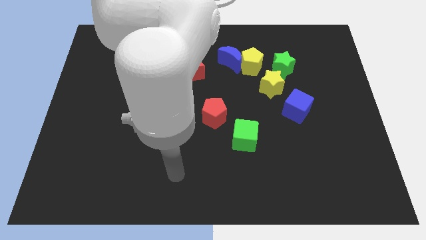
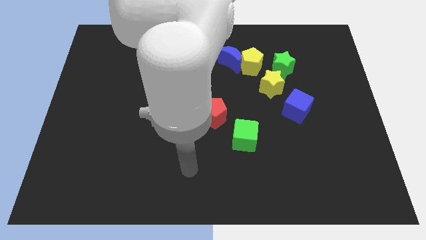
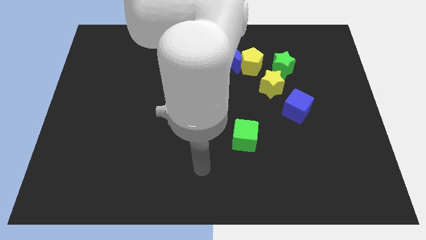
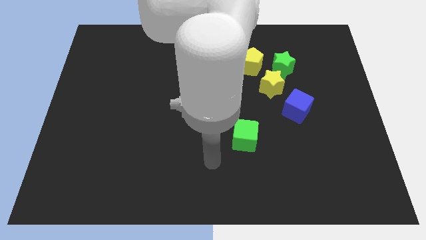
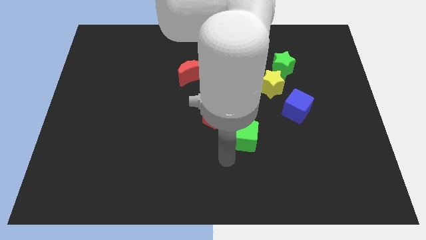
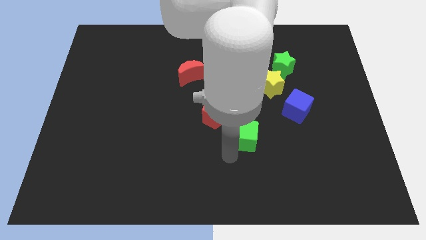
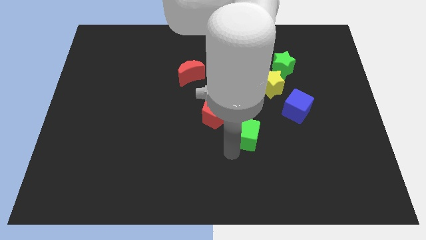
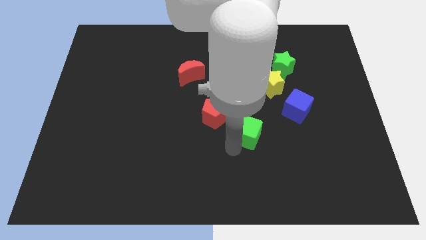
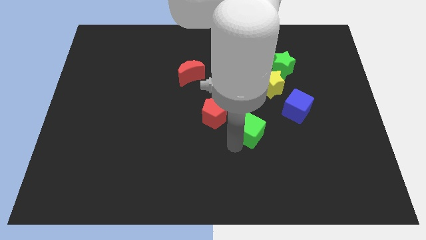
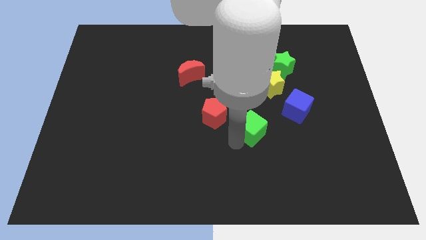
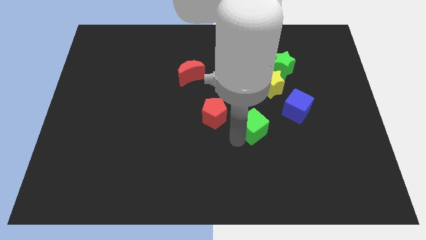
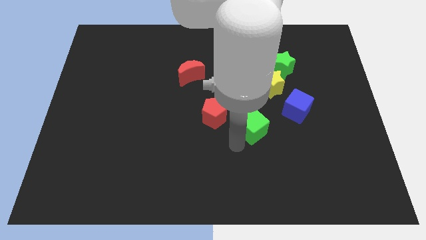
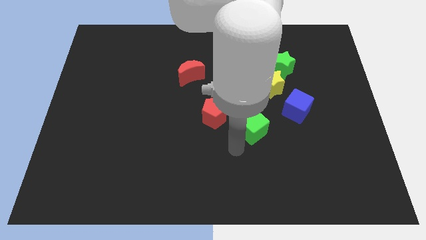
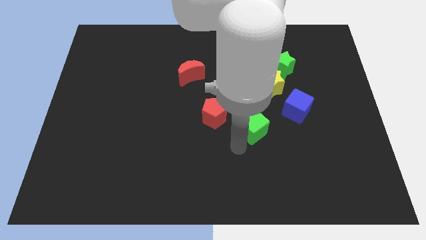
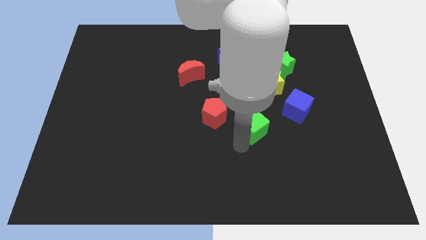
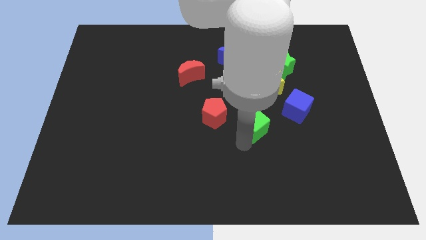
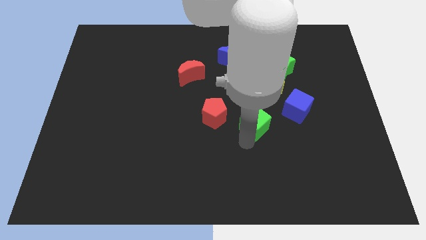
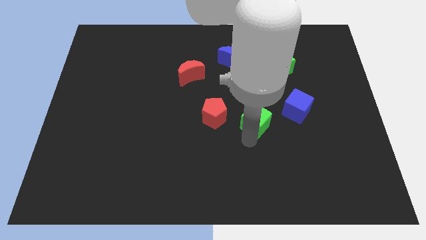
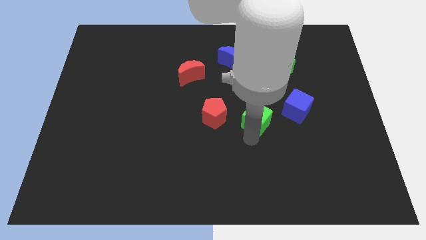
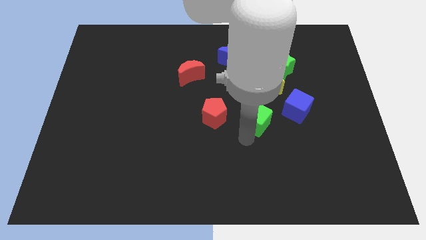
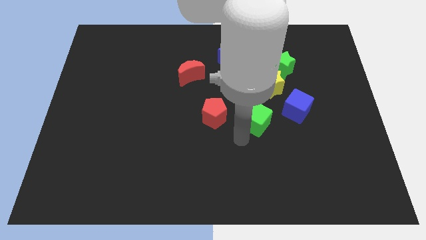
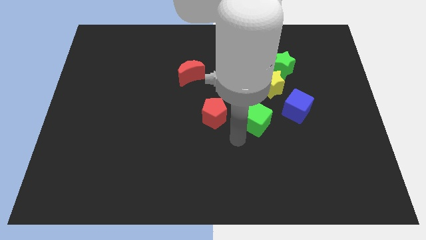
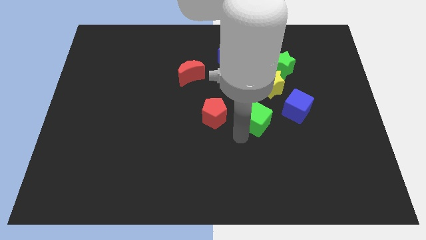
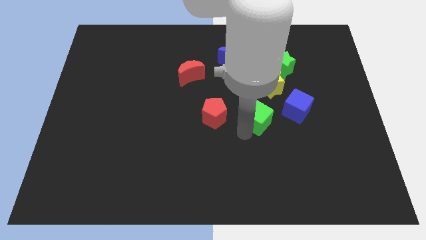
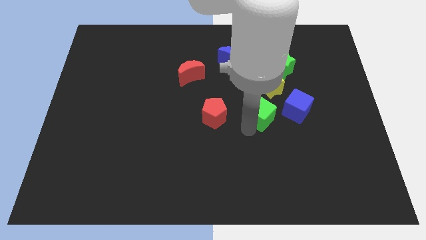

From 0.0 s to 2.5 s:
slightly slide the green cube up and to the right diagonally

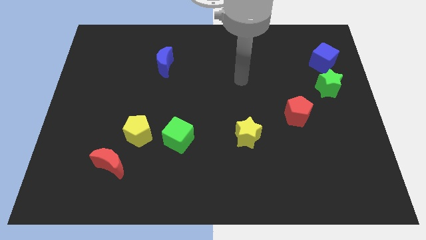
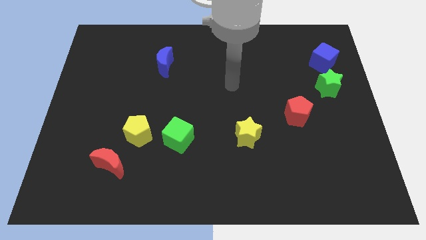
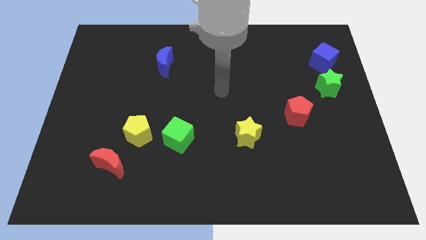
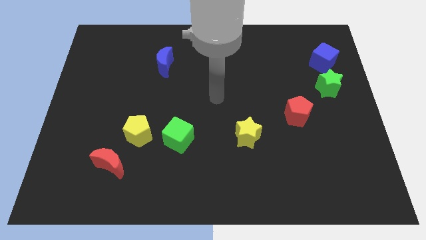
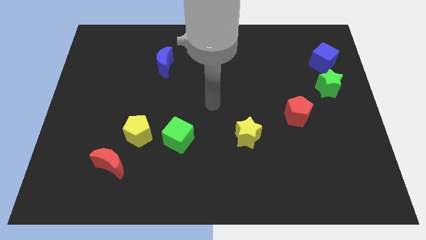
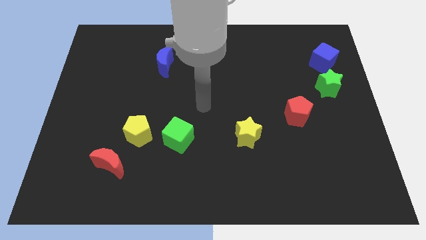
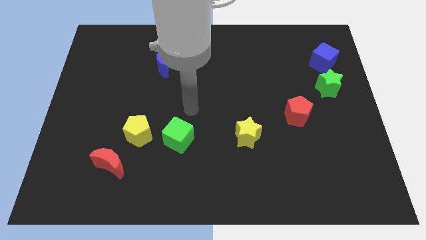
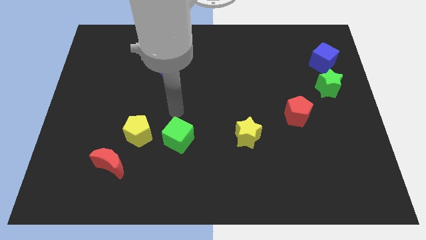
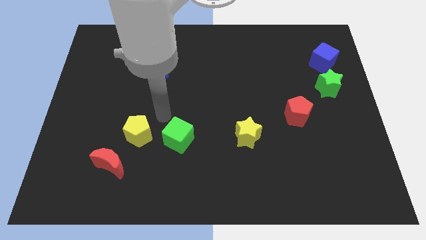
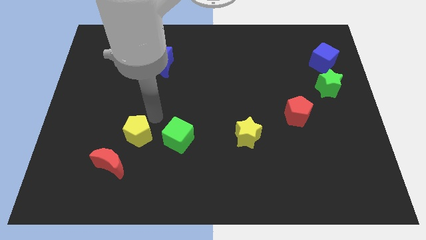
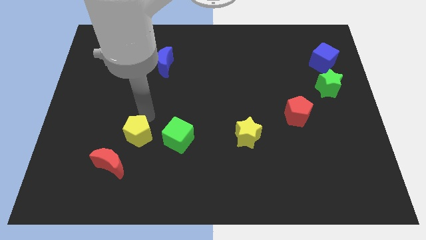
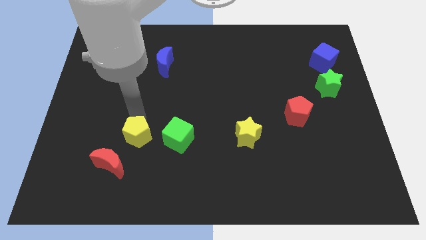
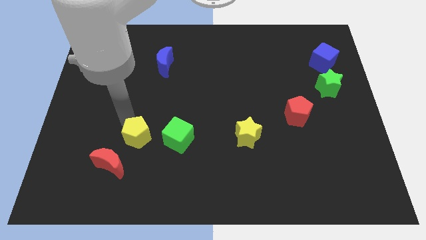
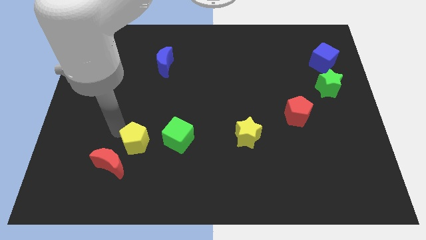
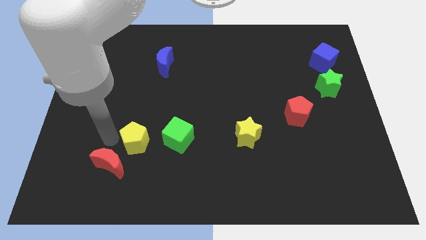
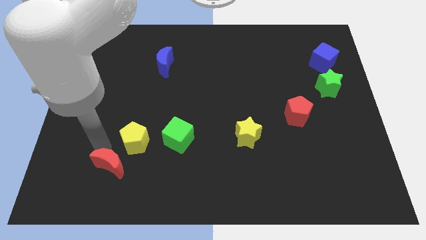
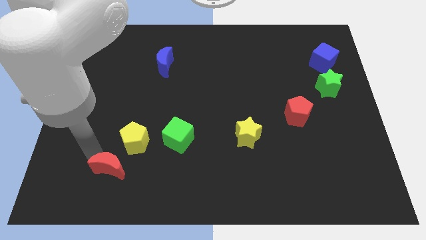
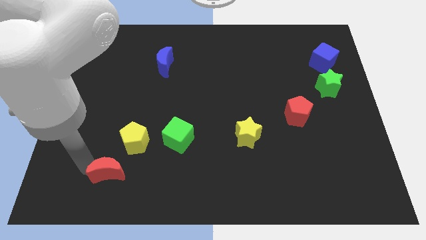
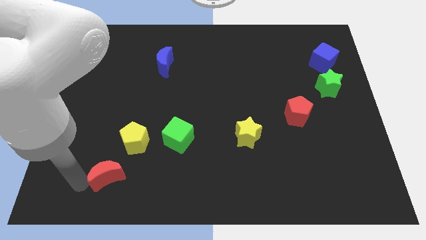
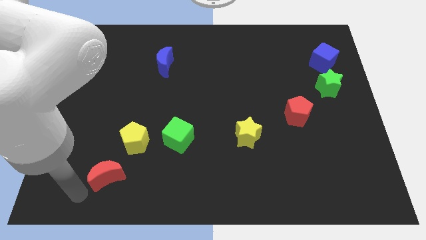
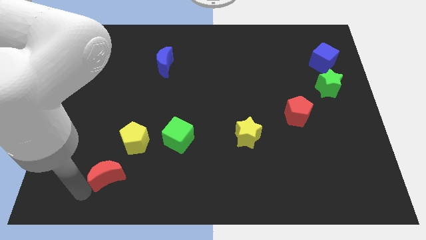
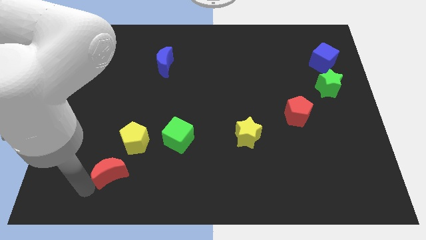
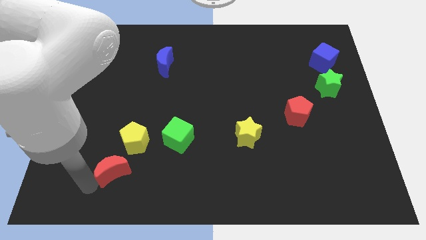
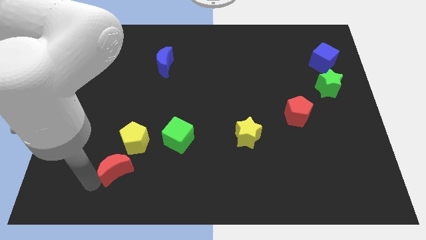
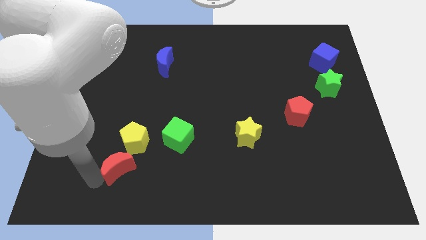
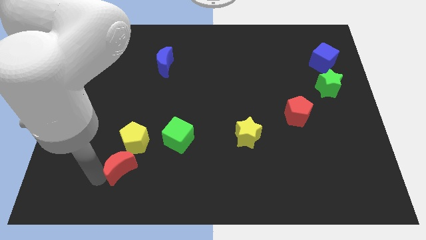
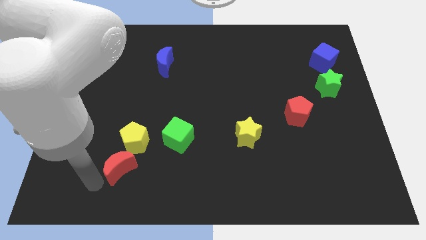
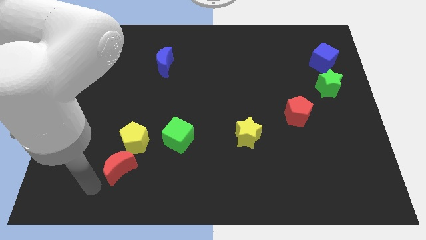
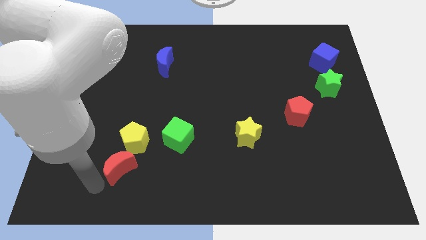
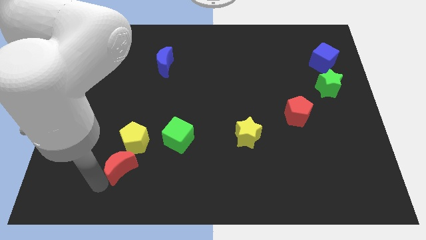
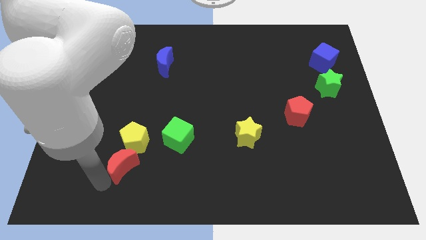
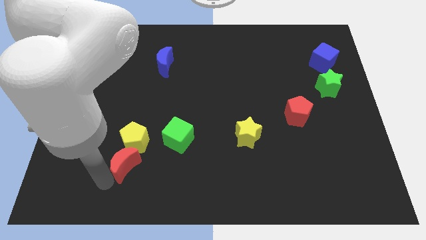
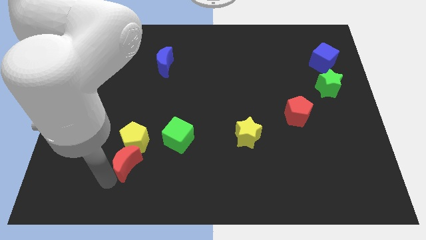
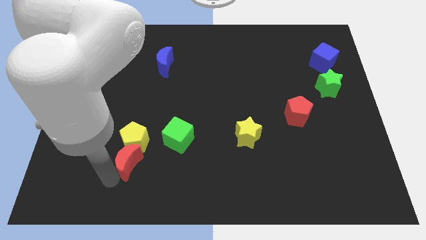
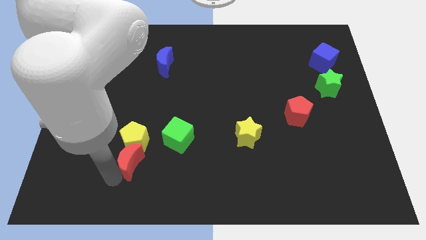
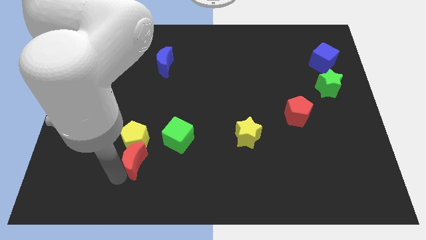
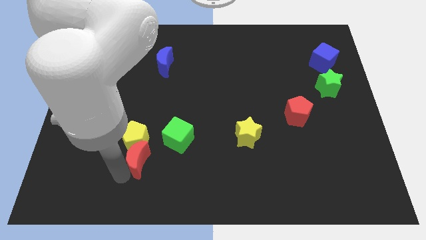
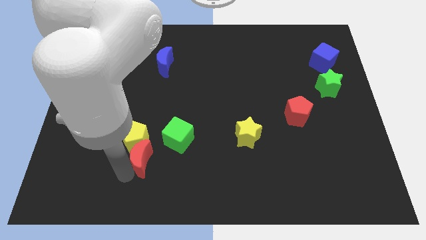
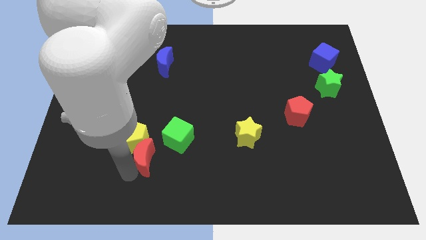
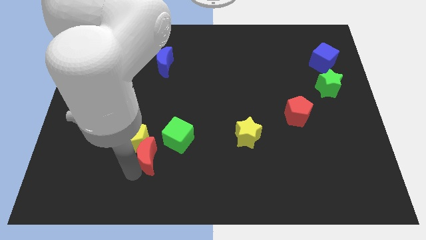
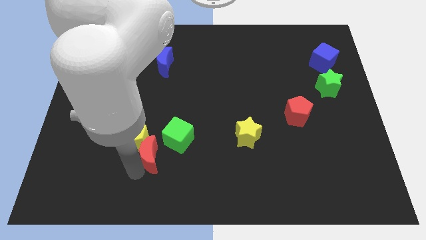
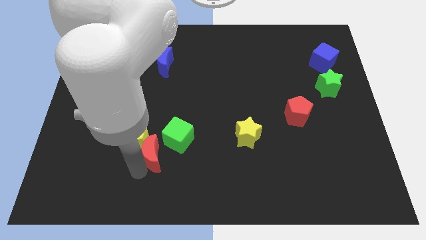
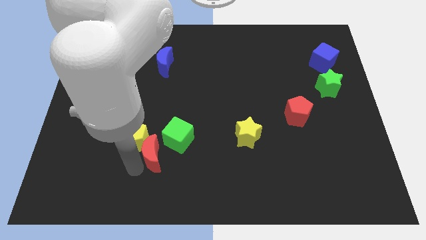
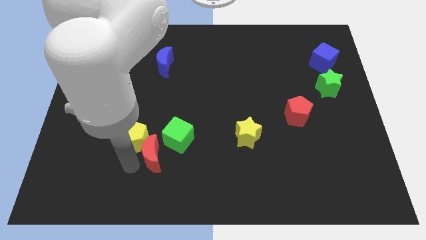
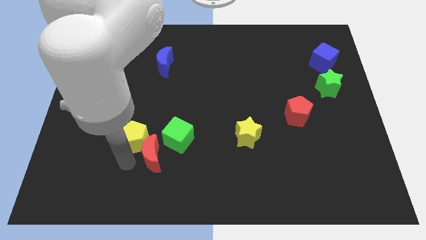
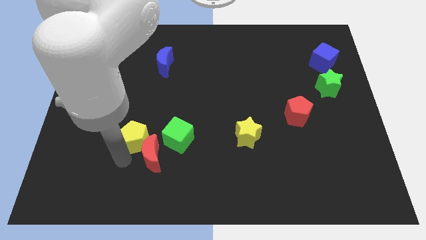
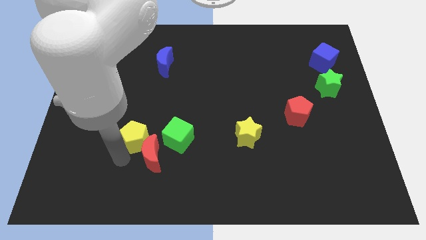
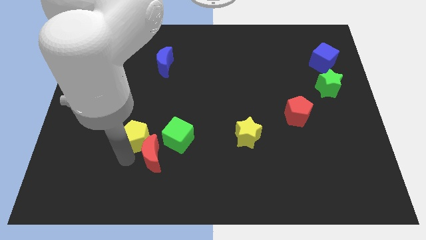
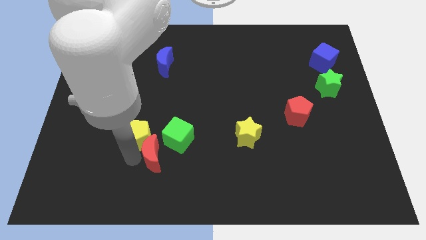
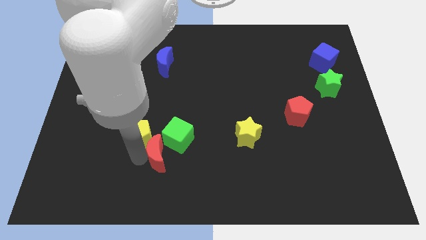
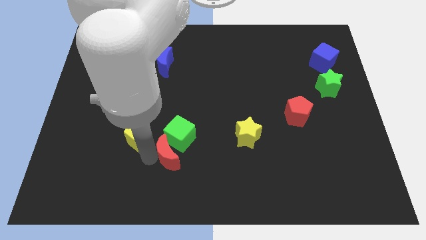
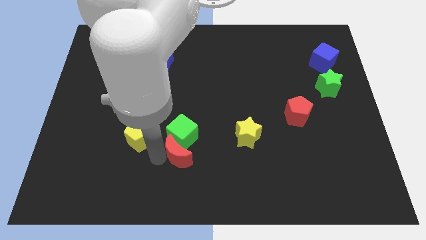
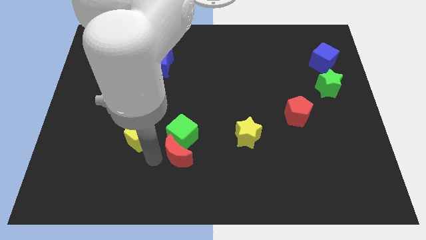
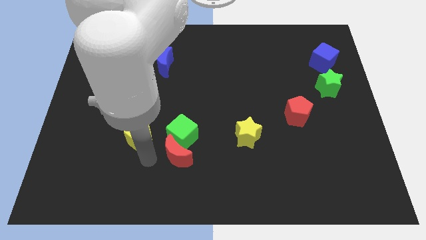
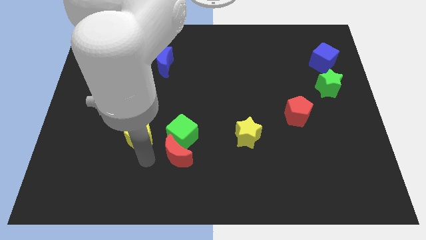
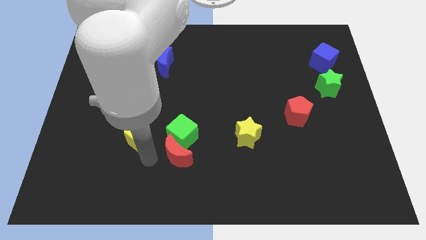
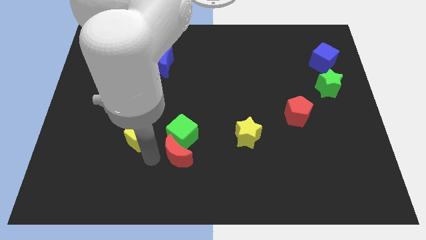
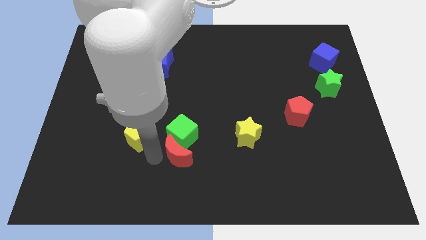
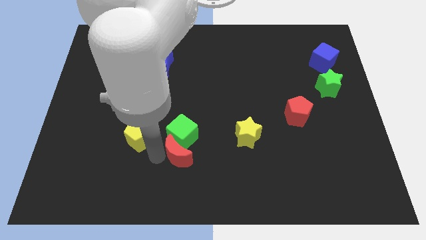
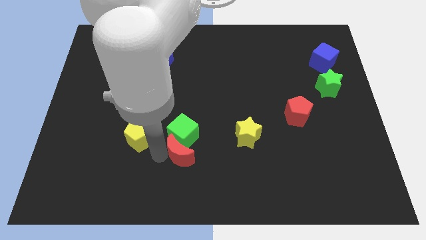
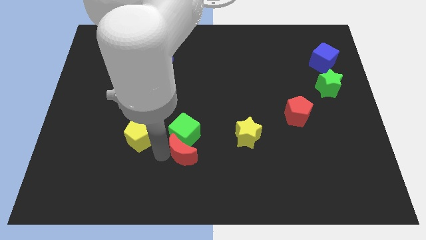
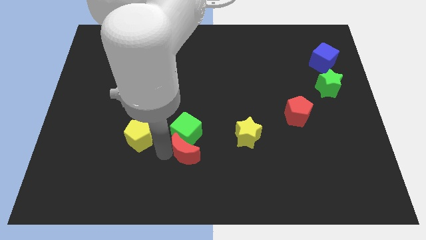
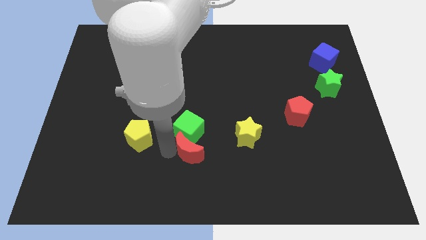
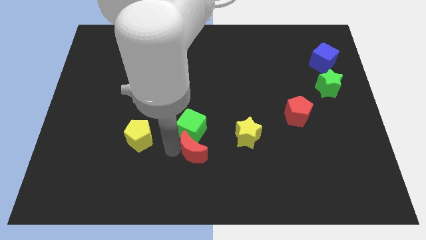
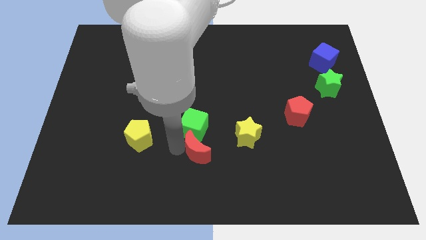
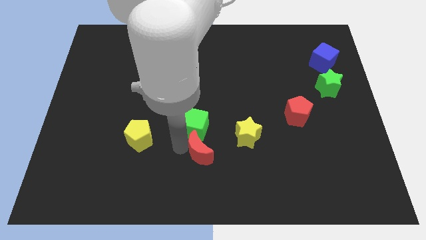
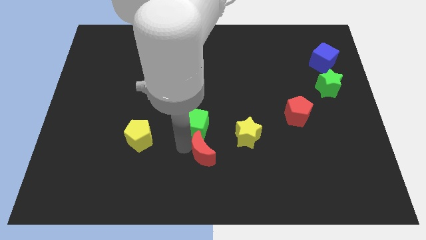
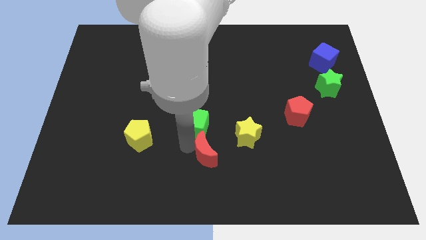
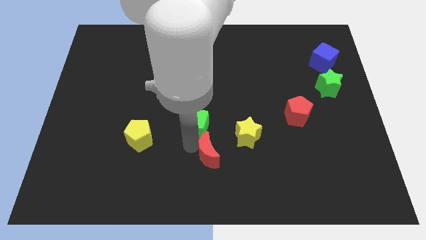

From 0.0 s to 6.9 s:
push the red moon right
